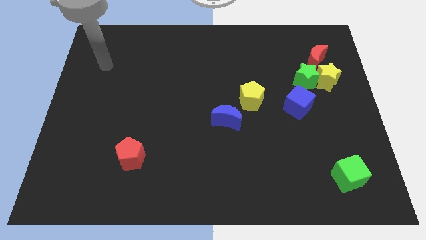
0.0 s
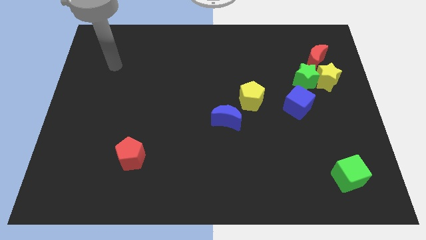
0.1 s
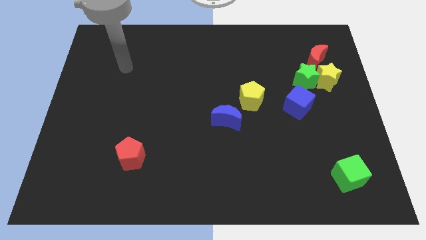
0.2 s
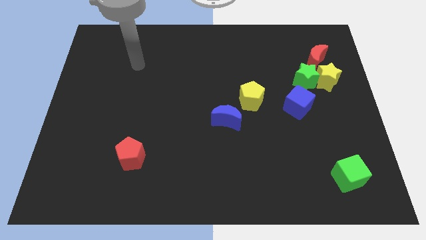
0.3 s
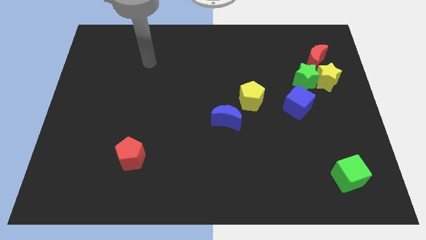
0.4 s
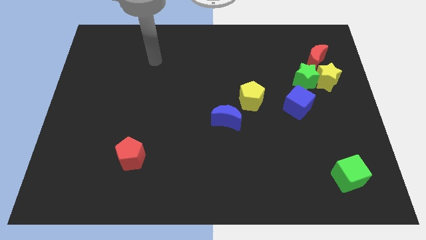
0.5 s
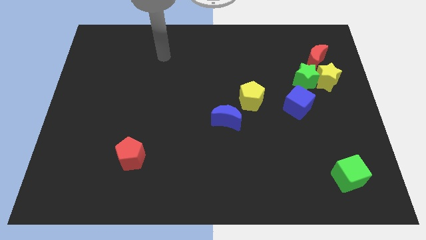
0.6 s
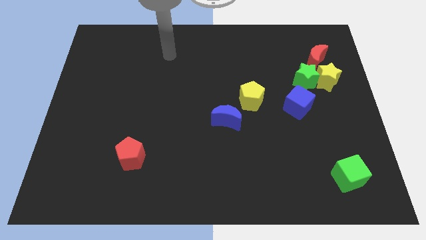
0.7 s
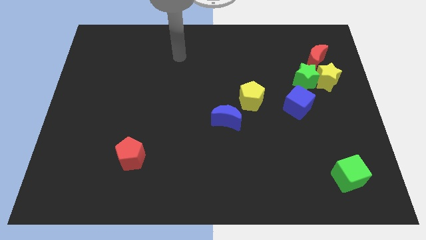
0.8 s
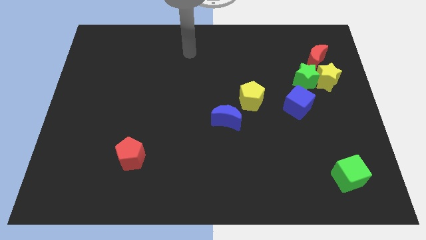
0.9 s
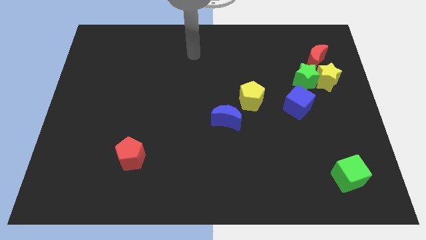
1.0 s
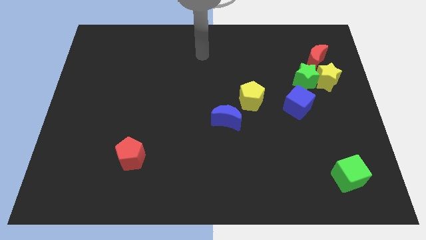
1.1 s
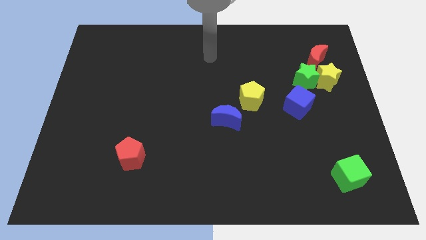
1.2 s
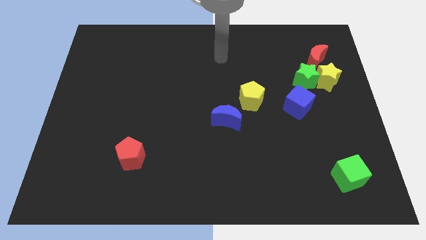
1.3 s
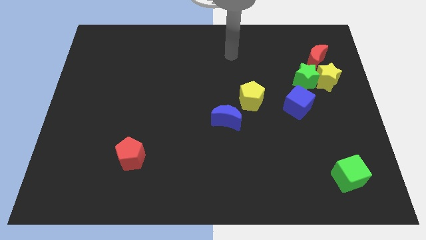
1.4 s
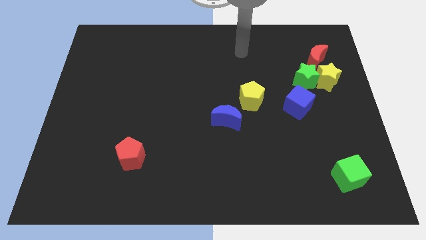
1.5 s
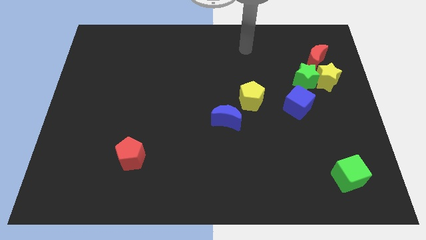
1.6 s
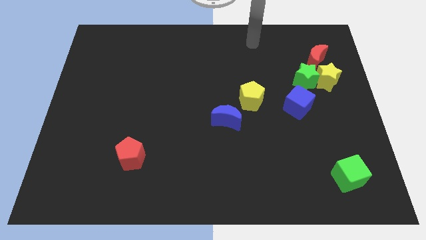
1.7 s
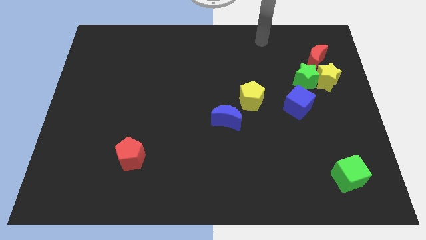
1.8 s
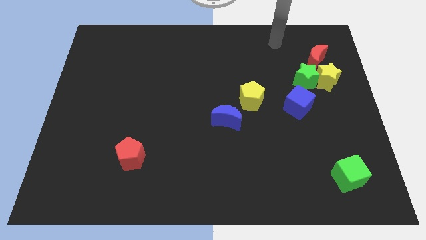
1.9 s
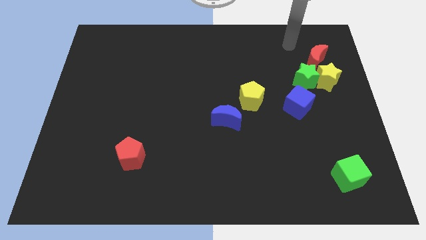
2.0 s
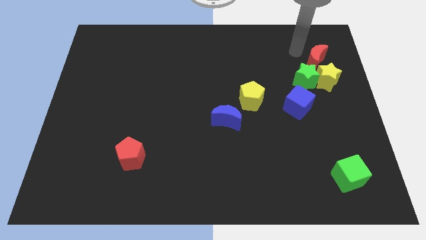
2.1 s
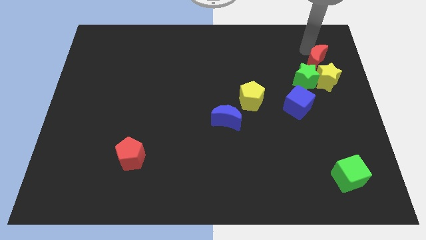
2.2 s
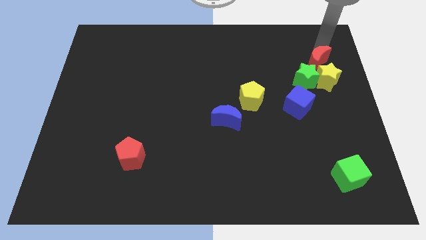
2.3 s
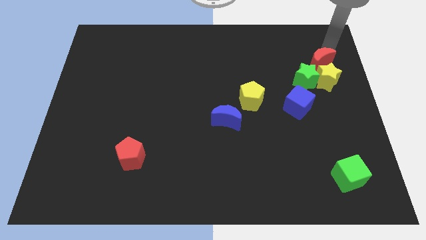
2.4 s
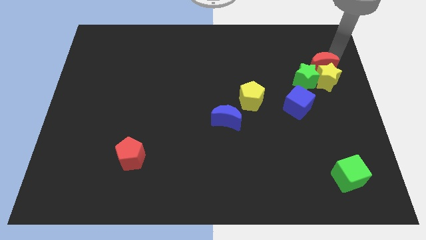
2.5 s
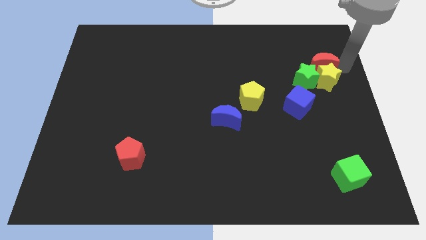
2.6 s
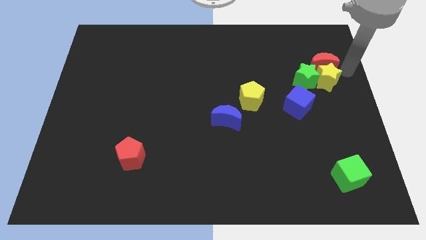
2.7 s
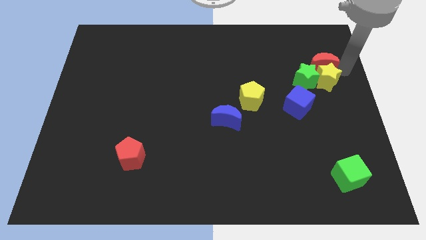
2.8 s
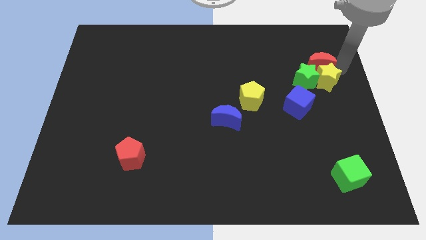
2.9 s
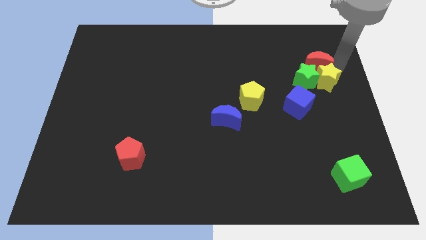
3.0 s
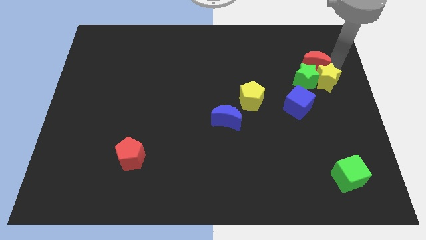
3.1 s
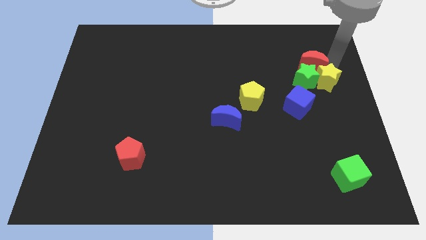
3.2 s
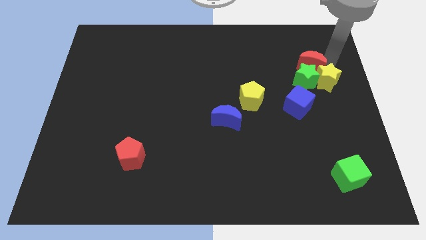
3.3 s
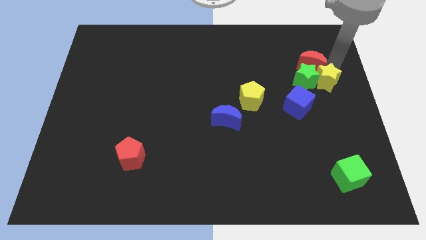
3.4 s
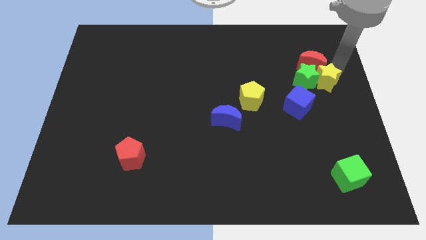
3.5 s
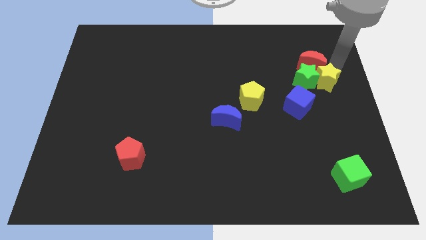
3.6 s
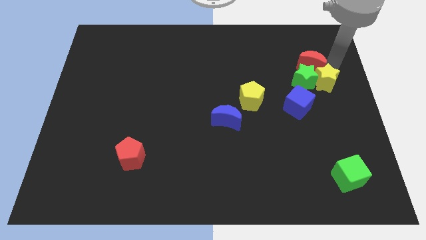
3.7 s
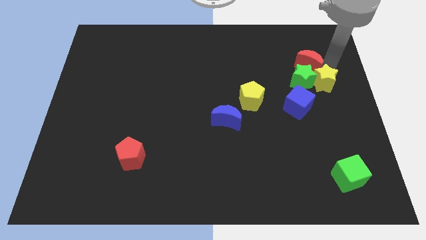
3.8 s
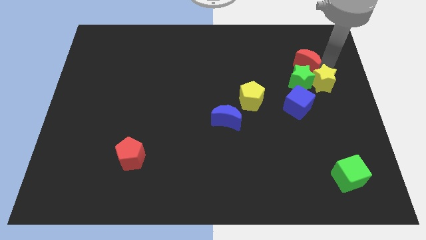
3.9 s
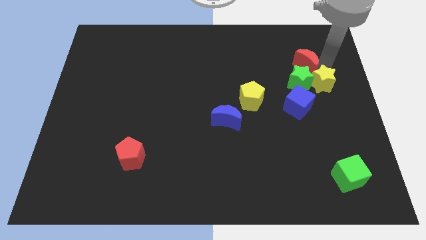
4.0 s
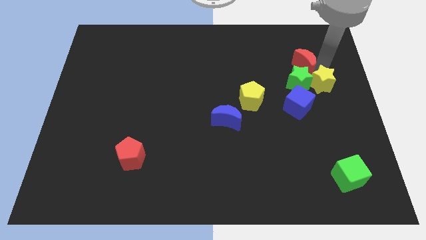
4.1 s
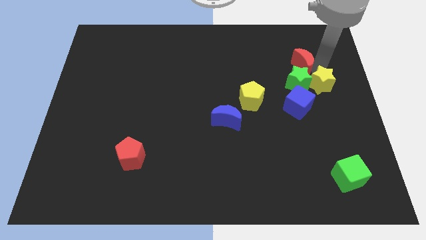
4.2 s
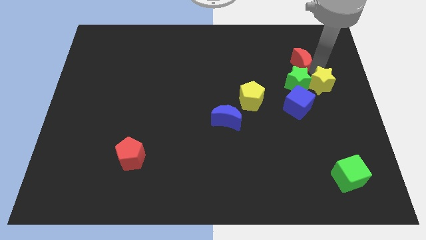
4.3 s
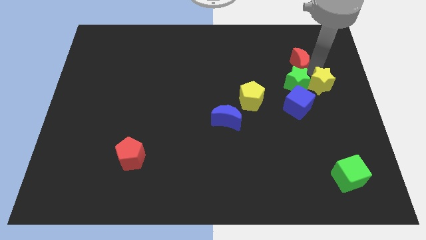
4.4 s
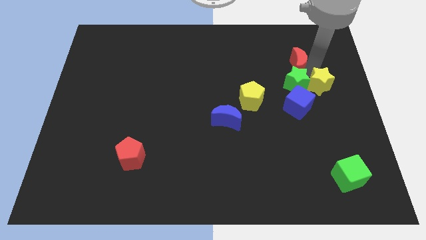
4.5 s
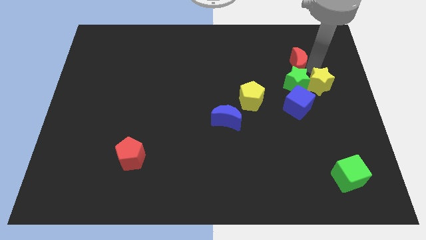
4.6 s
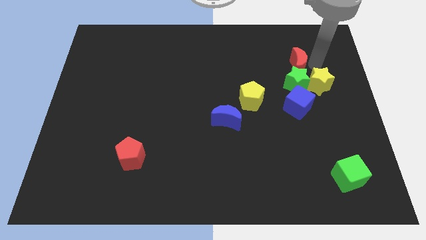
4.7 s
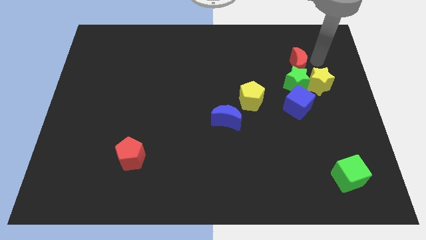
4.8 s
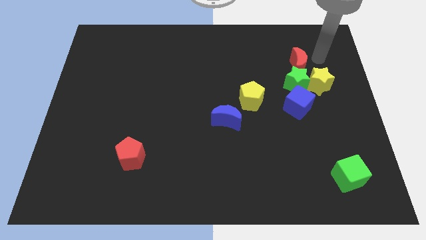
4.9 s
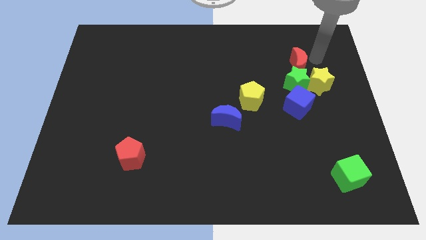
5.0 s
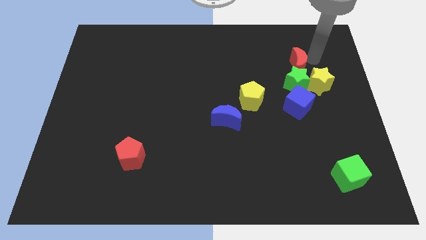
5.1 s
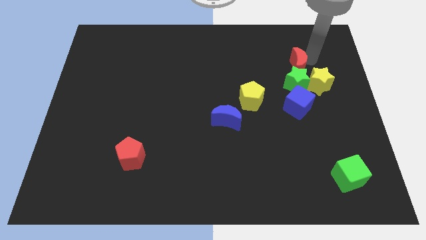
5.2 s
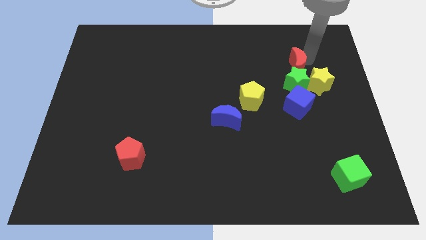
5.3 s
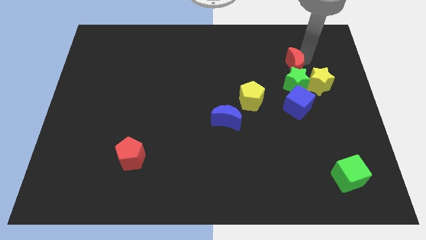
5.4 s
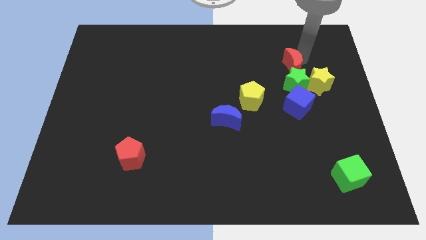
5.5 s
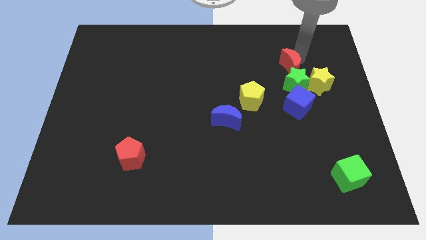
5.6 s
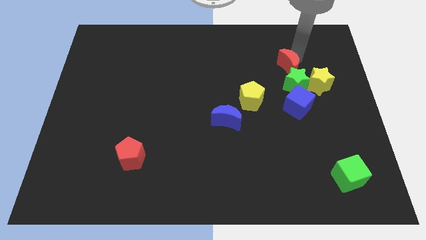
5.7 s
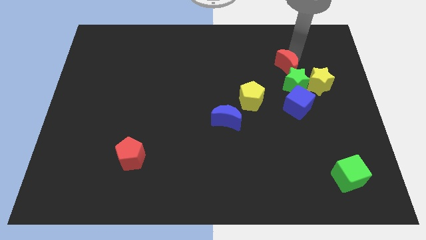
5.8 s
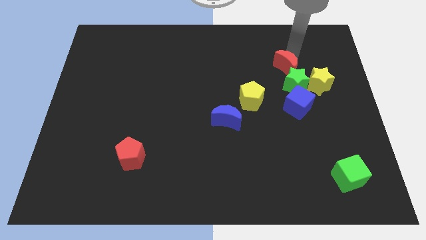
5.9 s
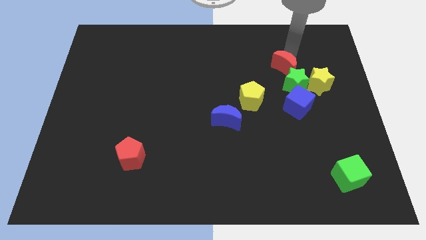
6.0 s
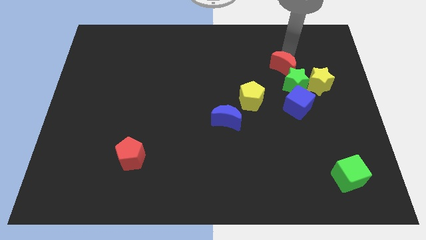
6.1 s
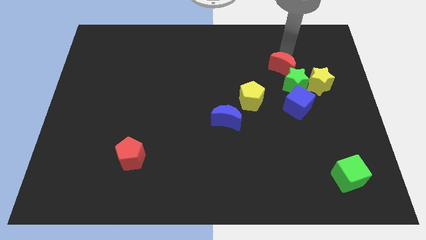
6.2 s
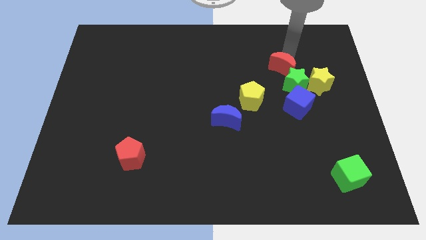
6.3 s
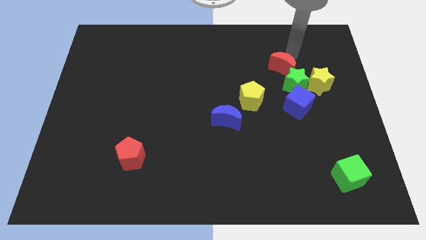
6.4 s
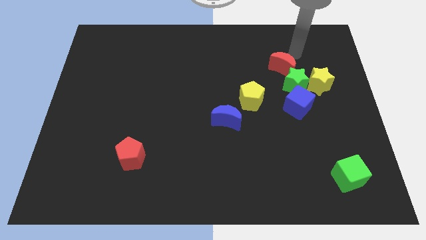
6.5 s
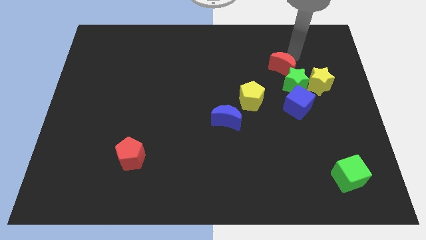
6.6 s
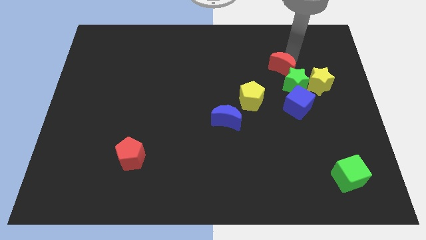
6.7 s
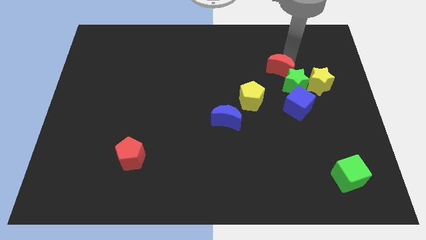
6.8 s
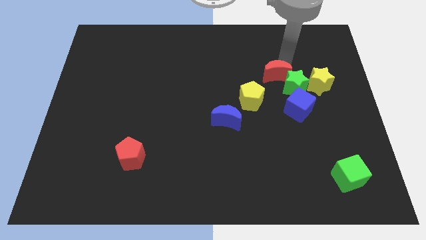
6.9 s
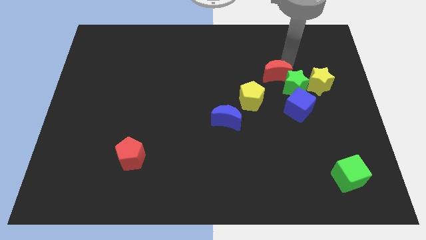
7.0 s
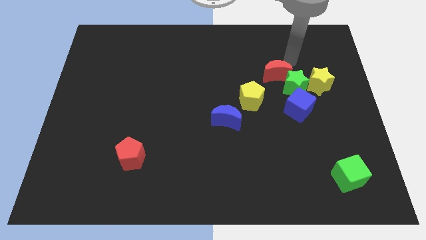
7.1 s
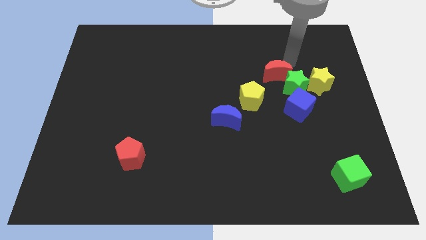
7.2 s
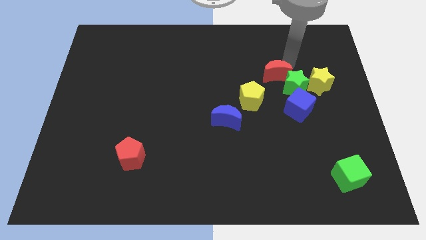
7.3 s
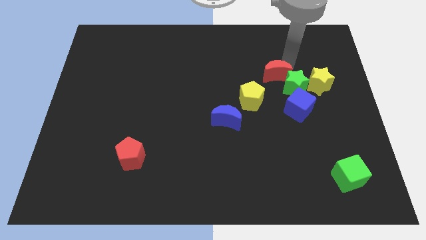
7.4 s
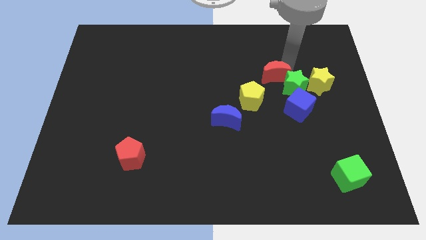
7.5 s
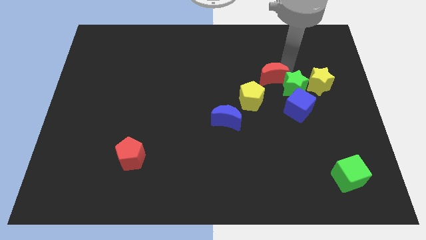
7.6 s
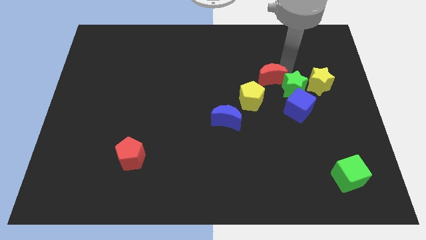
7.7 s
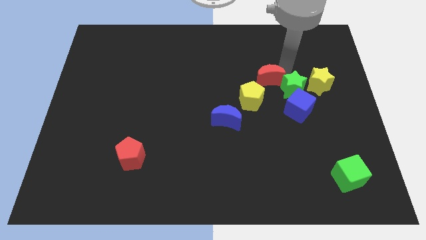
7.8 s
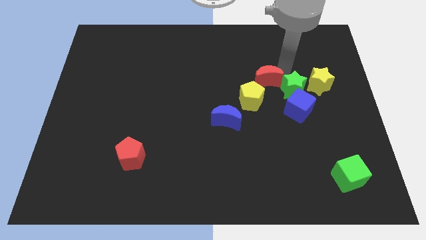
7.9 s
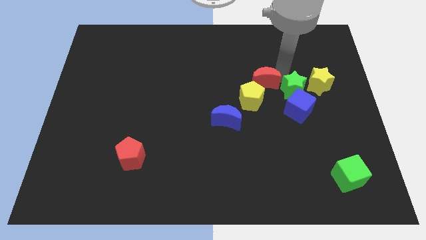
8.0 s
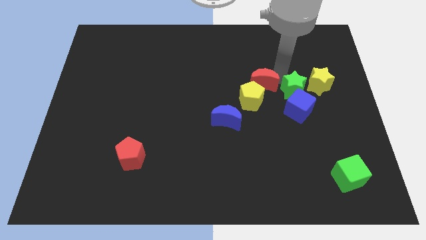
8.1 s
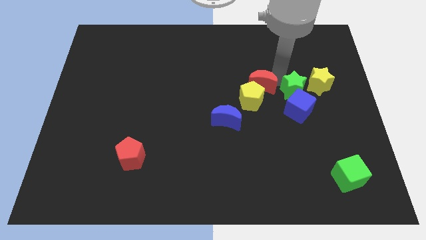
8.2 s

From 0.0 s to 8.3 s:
push the red moon to the yellow pentagon
